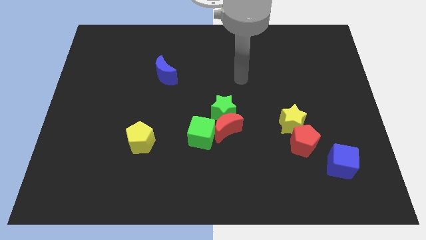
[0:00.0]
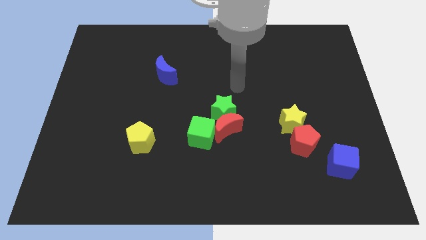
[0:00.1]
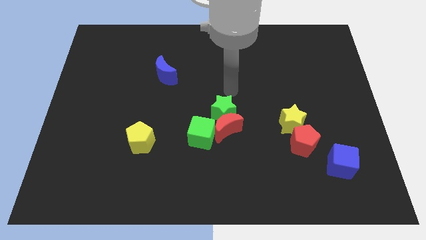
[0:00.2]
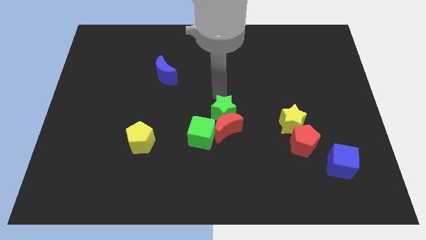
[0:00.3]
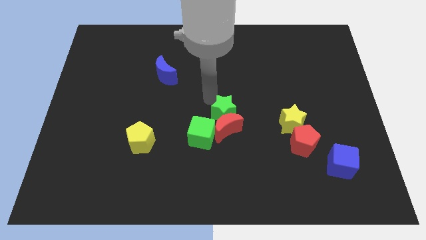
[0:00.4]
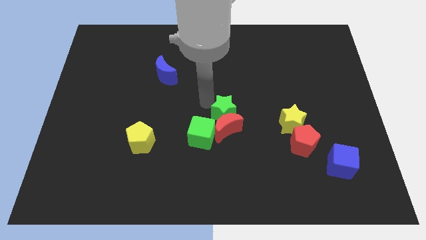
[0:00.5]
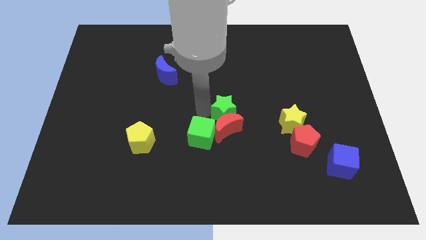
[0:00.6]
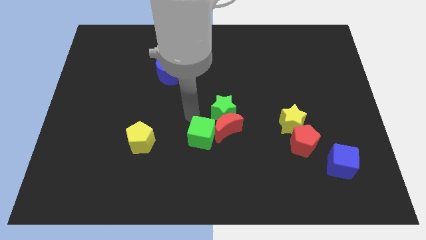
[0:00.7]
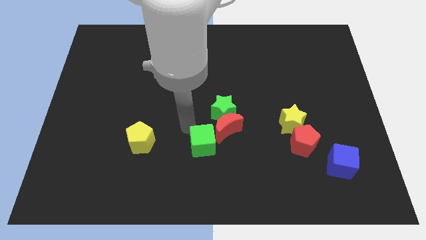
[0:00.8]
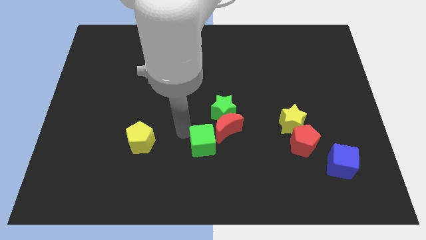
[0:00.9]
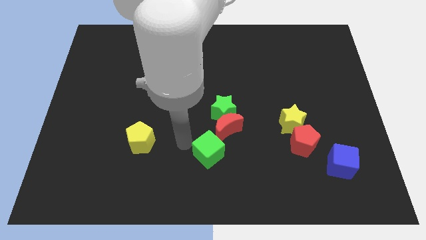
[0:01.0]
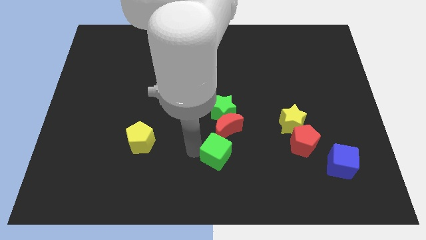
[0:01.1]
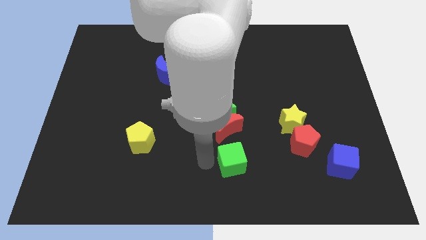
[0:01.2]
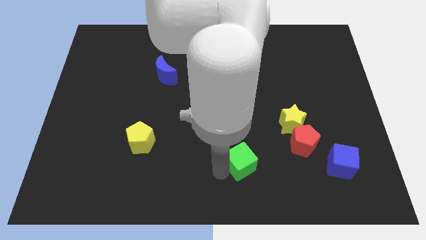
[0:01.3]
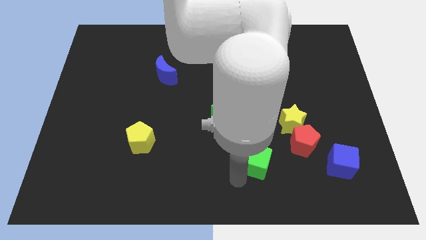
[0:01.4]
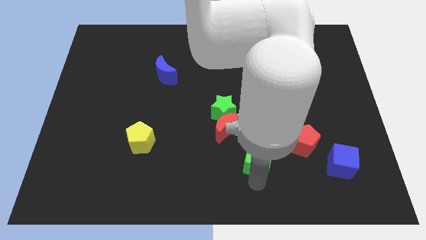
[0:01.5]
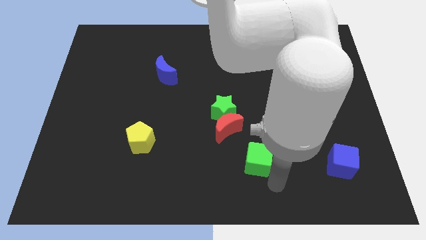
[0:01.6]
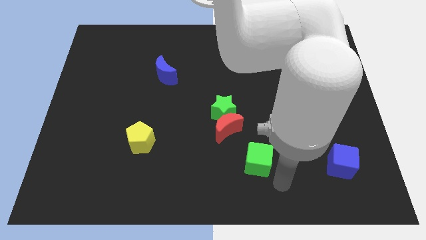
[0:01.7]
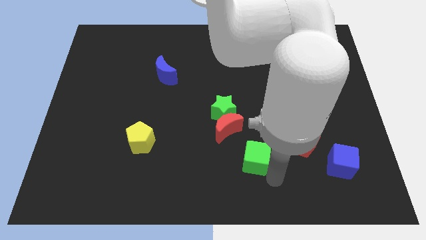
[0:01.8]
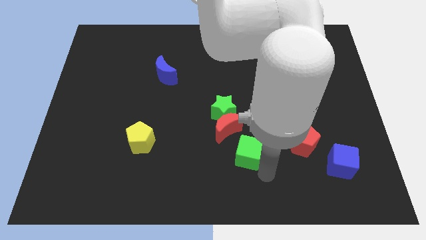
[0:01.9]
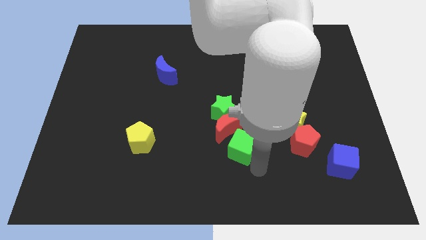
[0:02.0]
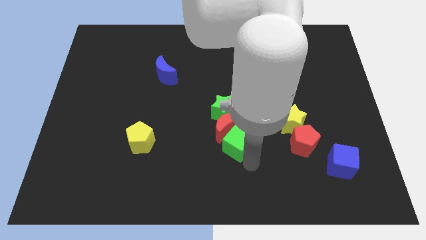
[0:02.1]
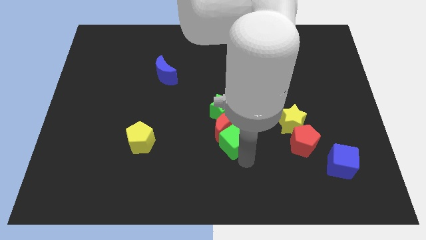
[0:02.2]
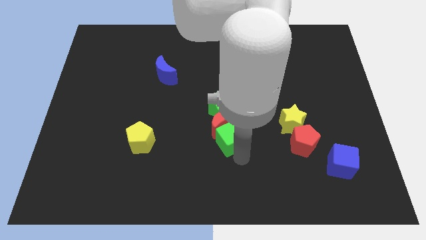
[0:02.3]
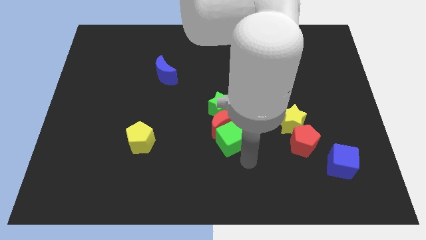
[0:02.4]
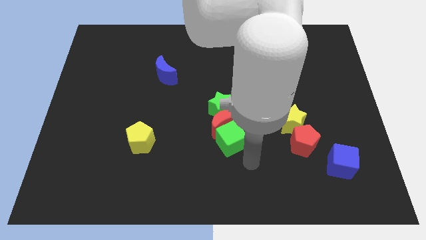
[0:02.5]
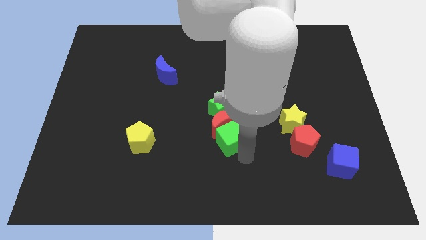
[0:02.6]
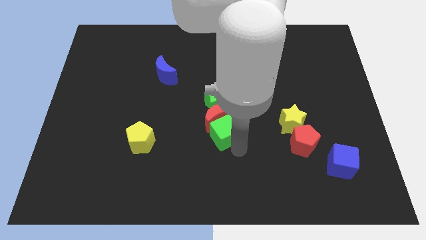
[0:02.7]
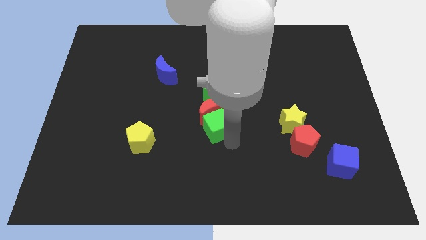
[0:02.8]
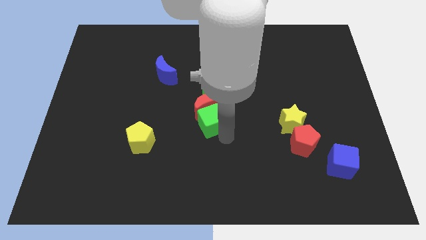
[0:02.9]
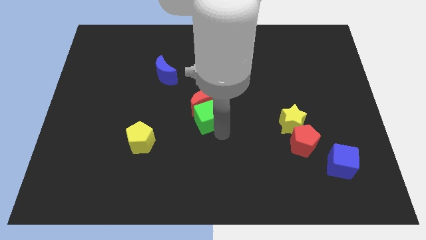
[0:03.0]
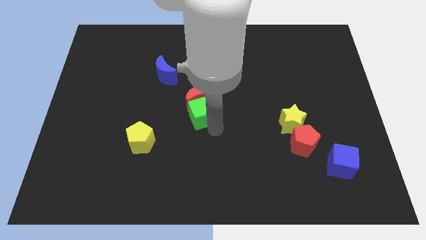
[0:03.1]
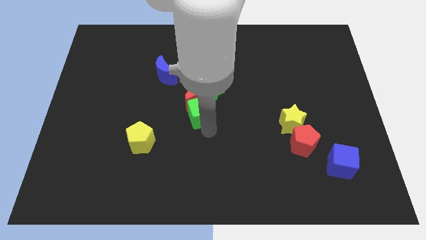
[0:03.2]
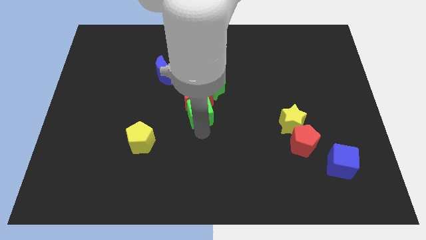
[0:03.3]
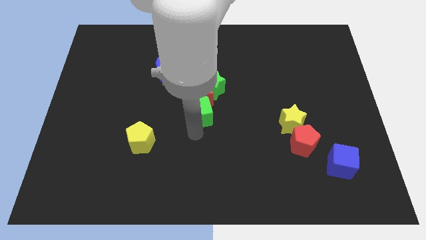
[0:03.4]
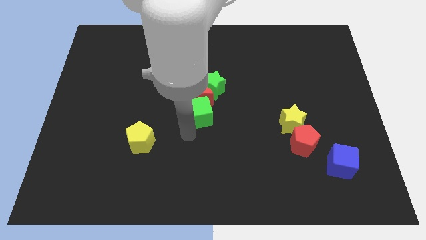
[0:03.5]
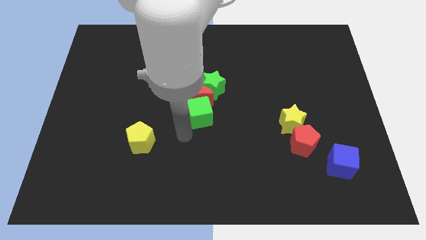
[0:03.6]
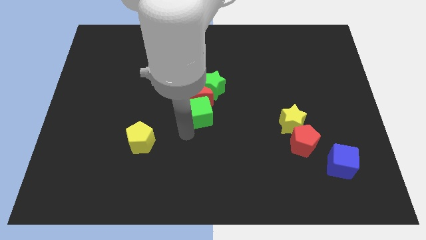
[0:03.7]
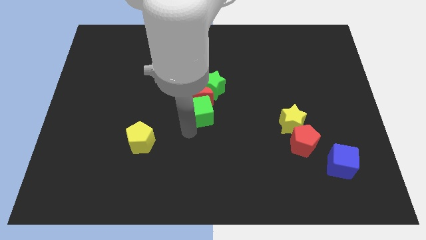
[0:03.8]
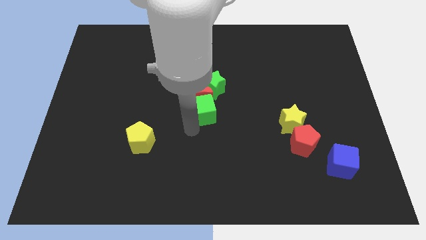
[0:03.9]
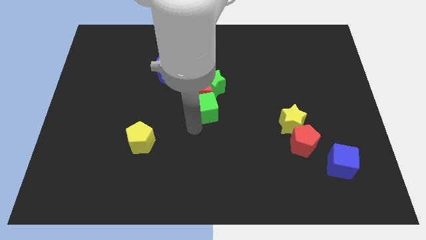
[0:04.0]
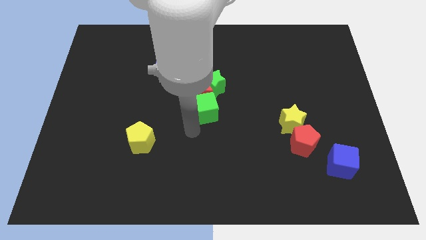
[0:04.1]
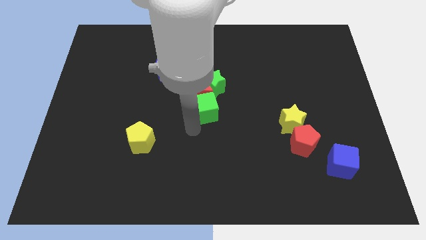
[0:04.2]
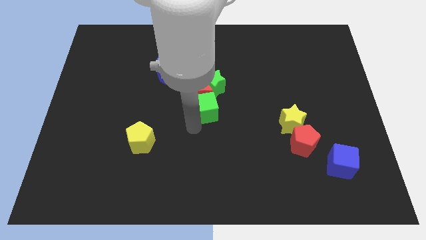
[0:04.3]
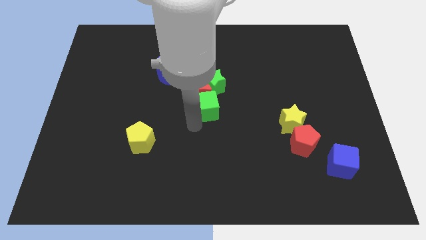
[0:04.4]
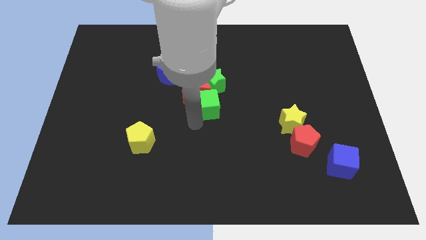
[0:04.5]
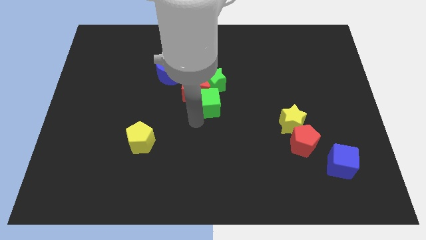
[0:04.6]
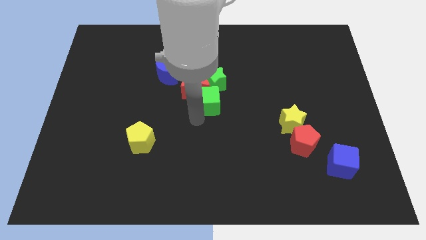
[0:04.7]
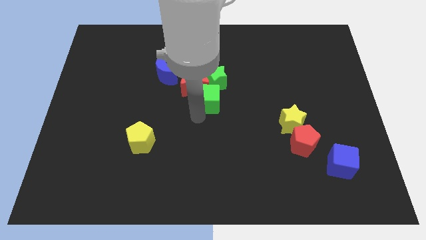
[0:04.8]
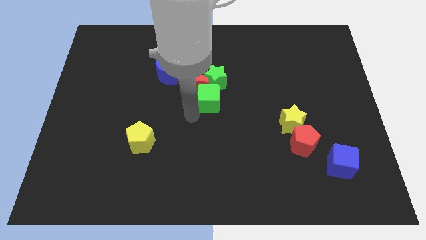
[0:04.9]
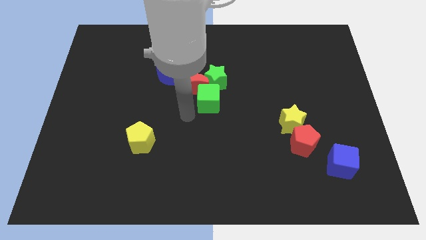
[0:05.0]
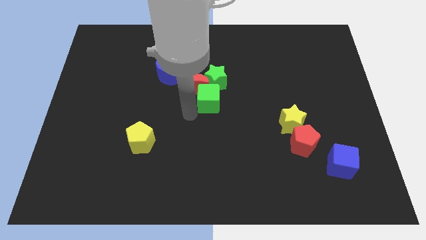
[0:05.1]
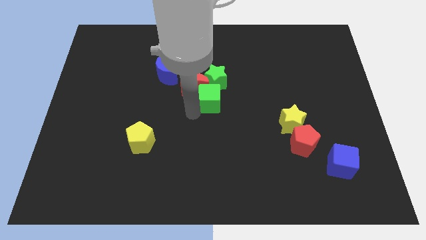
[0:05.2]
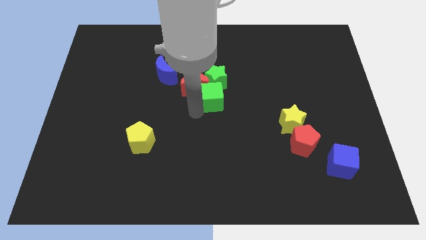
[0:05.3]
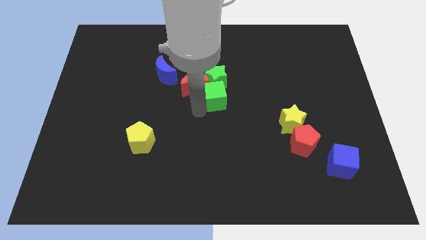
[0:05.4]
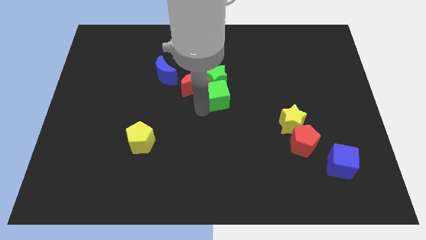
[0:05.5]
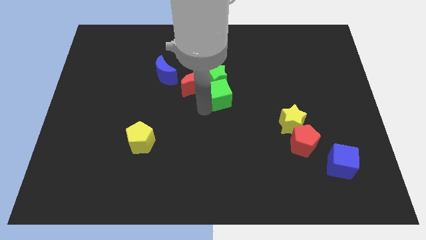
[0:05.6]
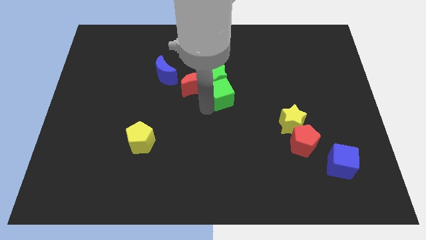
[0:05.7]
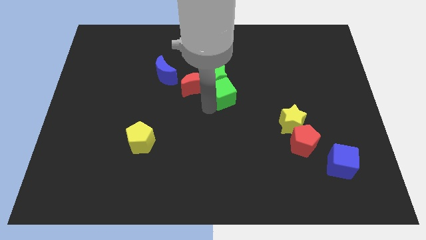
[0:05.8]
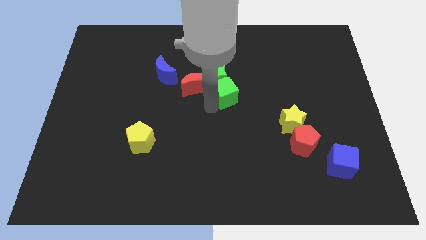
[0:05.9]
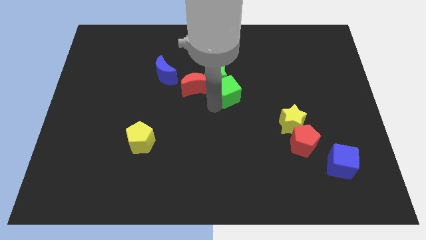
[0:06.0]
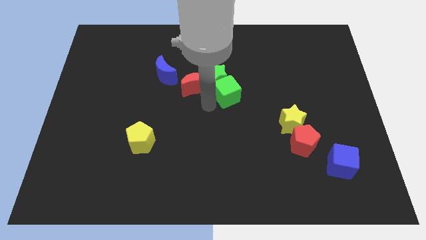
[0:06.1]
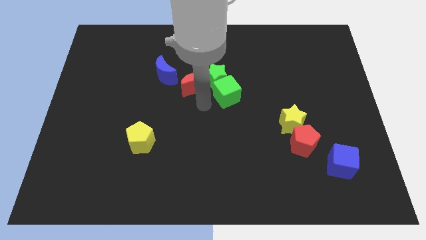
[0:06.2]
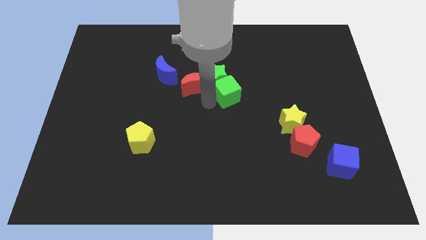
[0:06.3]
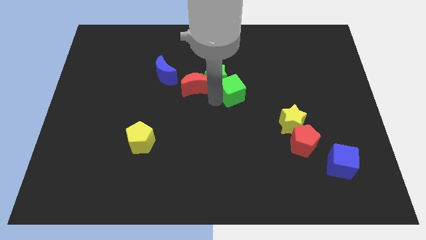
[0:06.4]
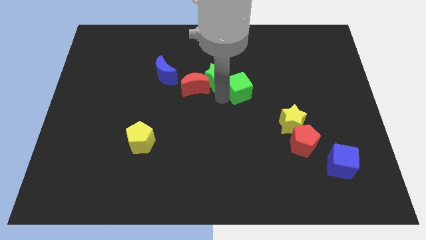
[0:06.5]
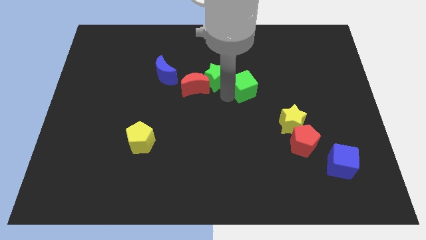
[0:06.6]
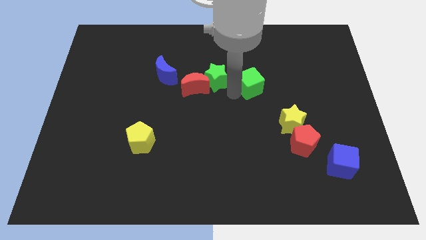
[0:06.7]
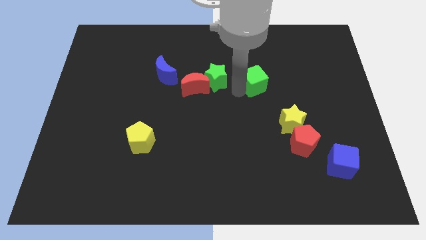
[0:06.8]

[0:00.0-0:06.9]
move the green cube diagonally upwards and to the right

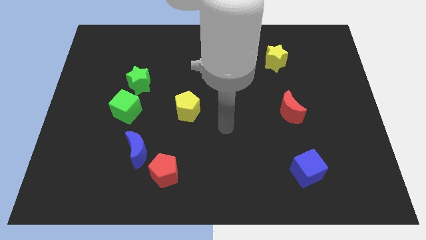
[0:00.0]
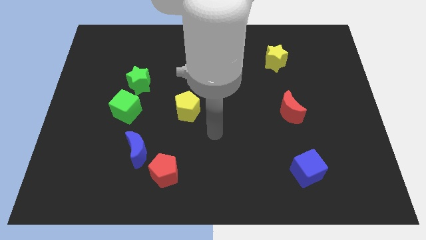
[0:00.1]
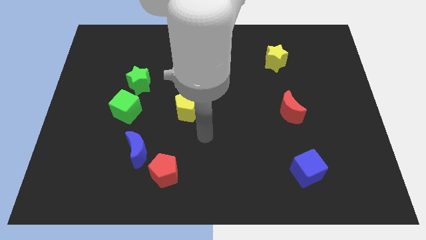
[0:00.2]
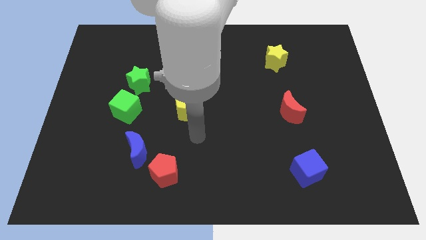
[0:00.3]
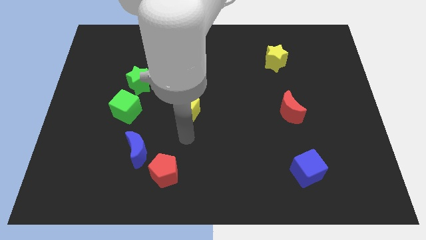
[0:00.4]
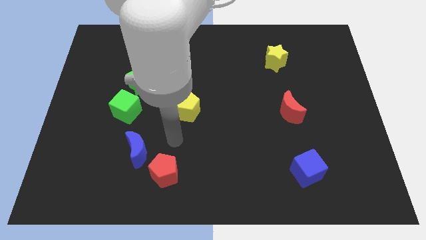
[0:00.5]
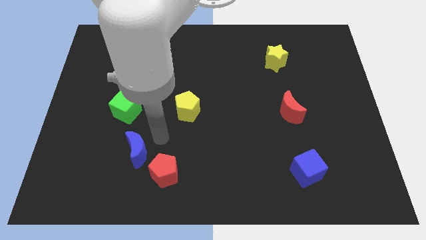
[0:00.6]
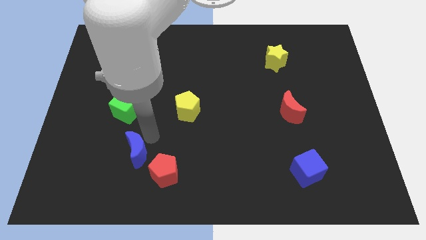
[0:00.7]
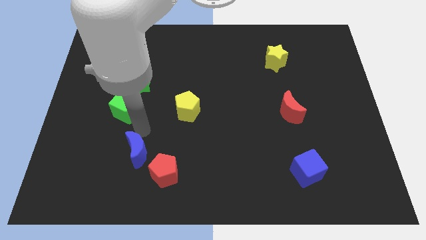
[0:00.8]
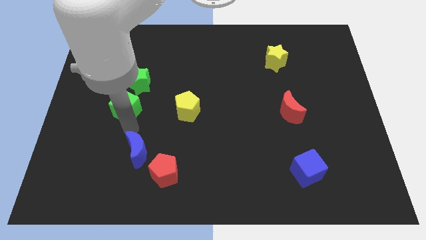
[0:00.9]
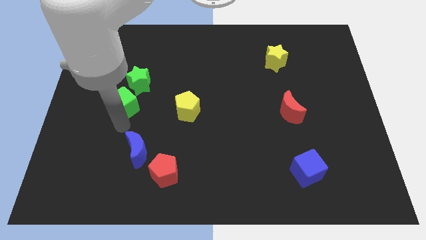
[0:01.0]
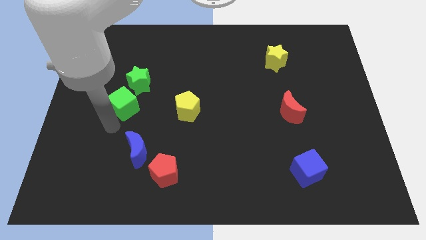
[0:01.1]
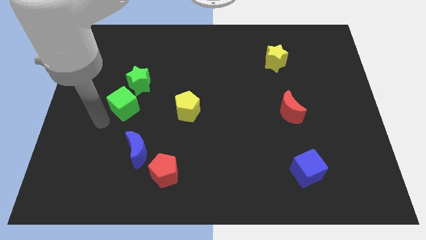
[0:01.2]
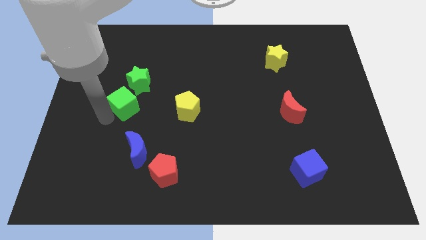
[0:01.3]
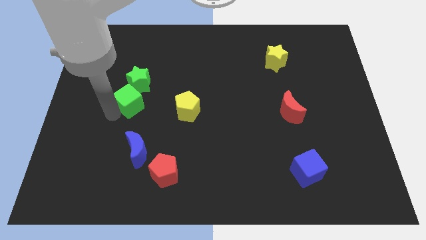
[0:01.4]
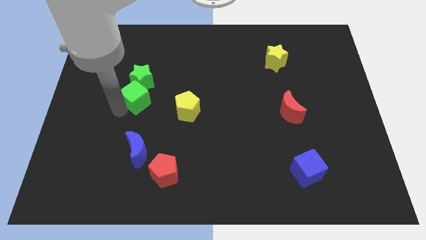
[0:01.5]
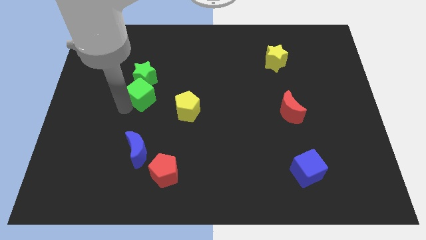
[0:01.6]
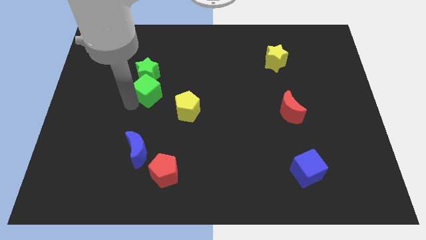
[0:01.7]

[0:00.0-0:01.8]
slightly slide the green cube up and to the right diagonally
